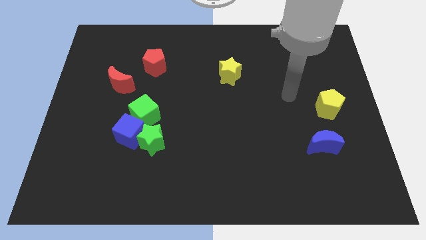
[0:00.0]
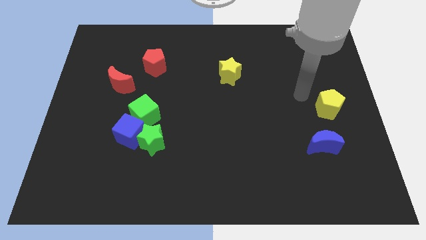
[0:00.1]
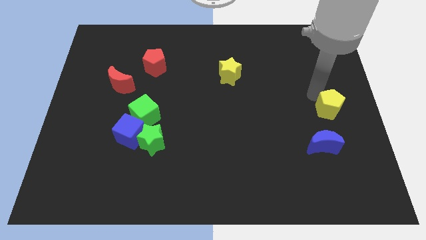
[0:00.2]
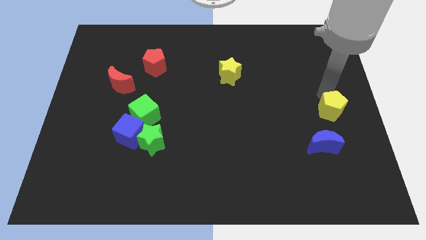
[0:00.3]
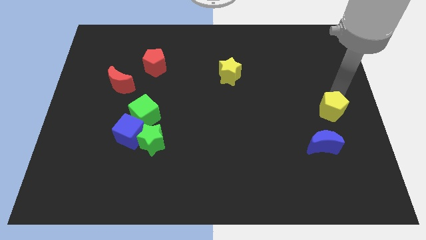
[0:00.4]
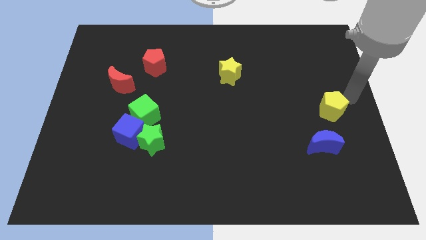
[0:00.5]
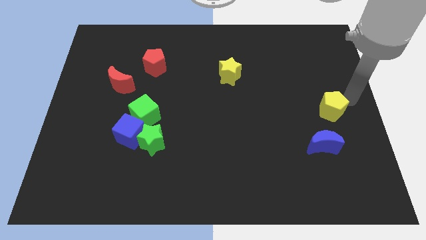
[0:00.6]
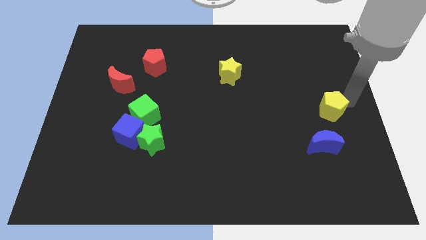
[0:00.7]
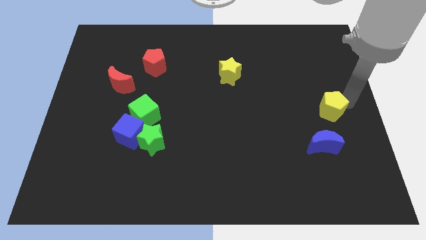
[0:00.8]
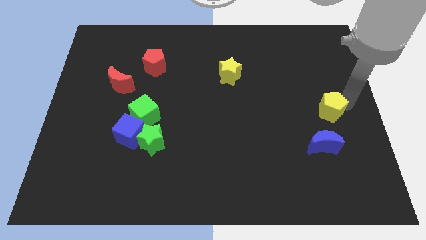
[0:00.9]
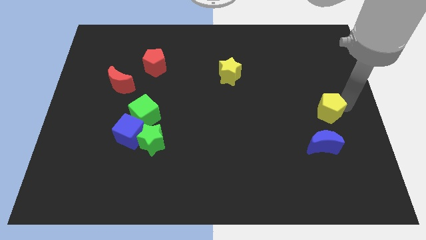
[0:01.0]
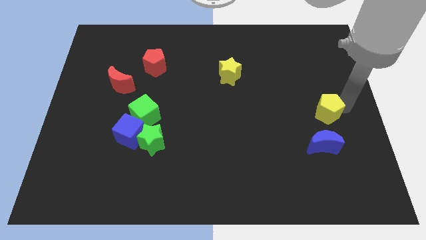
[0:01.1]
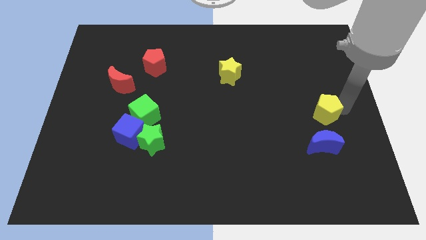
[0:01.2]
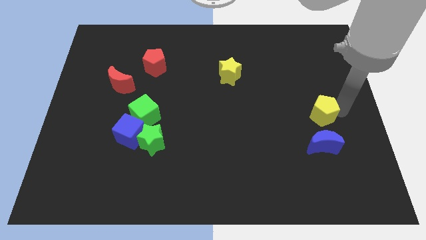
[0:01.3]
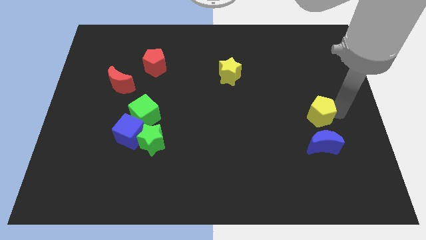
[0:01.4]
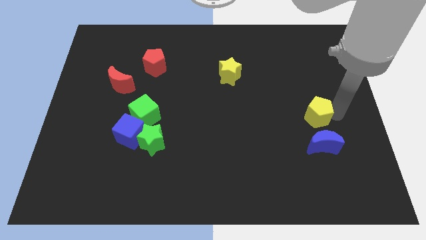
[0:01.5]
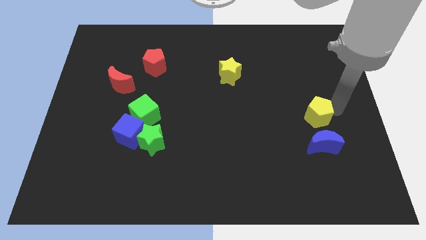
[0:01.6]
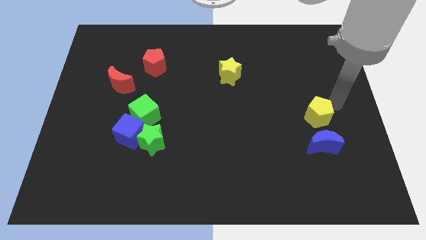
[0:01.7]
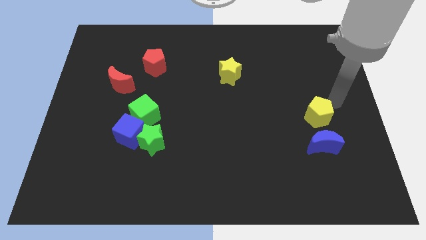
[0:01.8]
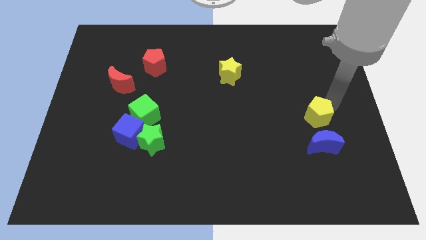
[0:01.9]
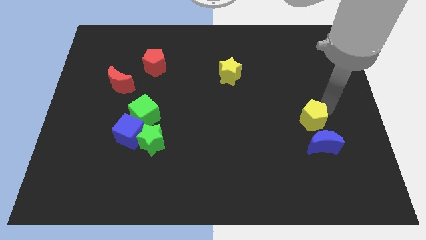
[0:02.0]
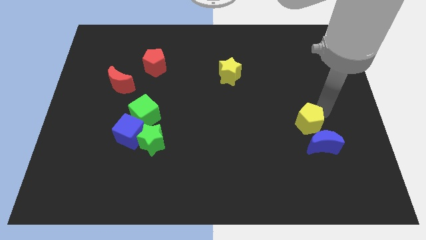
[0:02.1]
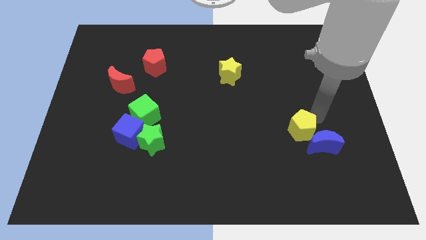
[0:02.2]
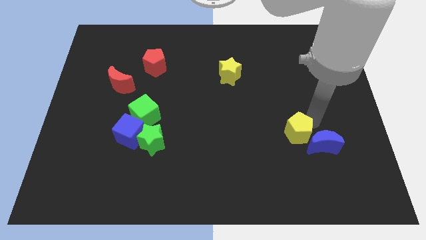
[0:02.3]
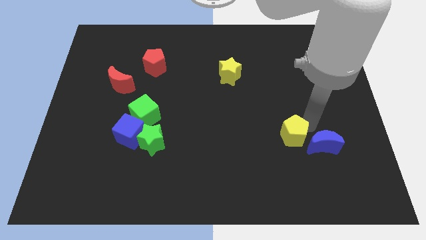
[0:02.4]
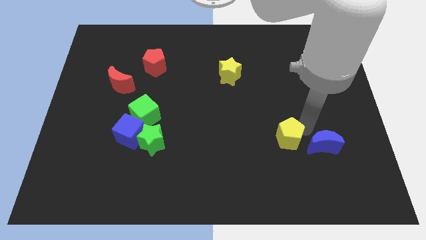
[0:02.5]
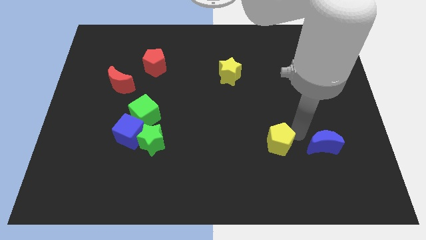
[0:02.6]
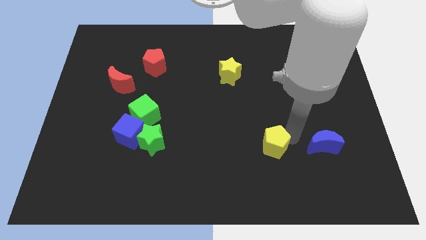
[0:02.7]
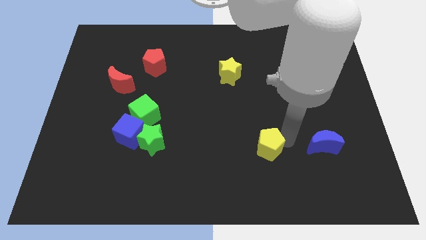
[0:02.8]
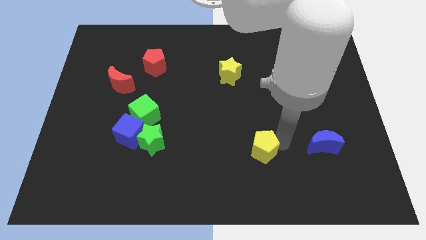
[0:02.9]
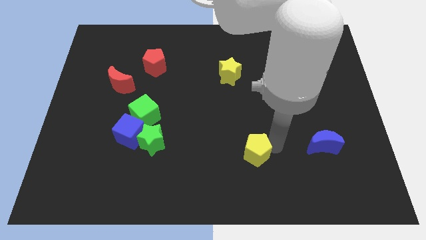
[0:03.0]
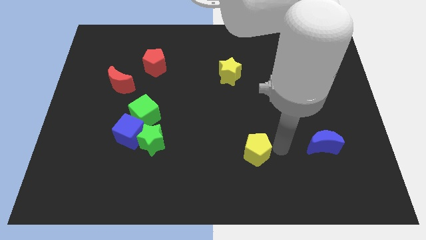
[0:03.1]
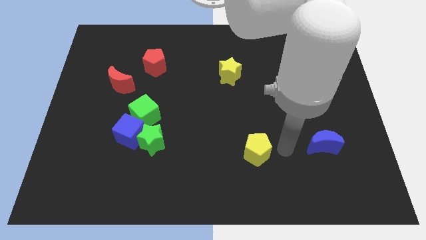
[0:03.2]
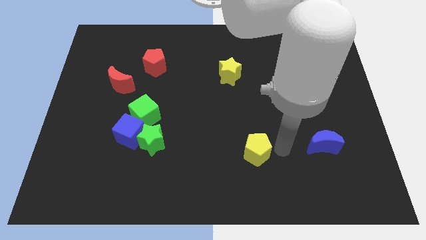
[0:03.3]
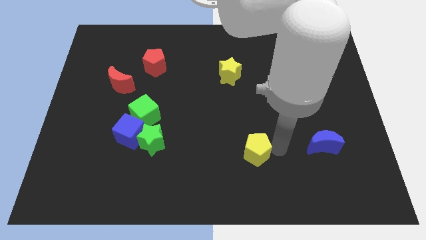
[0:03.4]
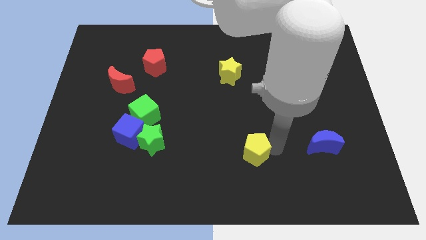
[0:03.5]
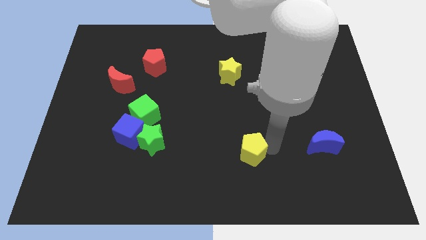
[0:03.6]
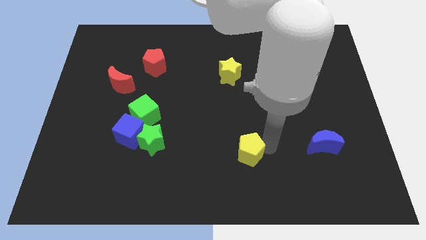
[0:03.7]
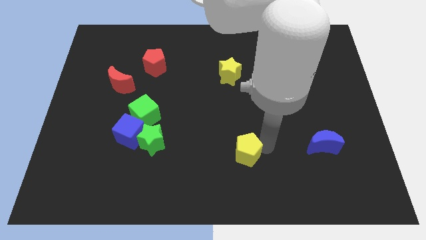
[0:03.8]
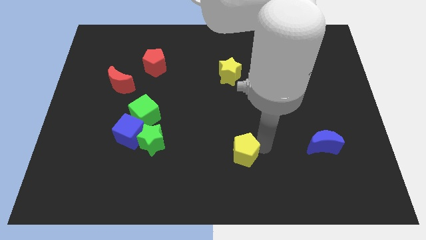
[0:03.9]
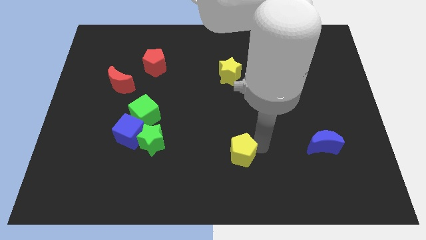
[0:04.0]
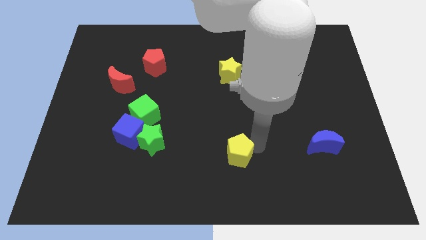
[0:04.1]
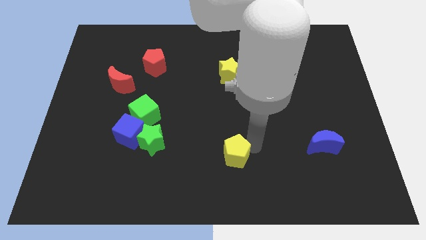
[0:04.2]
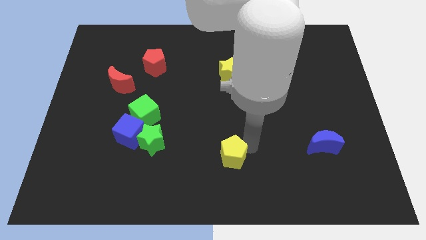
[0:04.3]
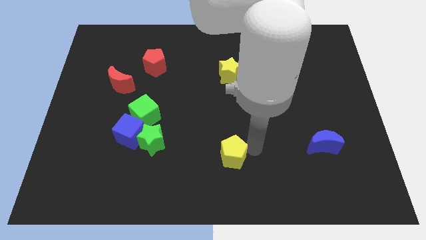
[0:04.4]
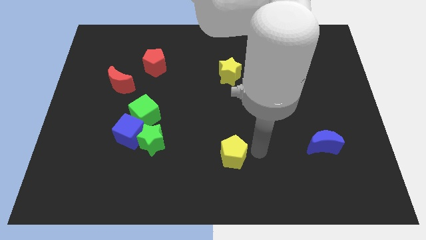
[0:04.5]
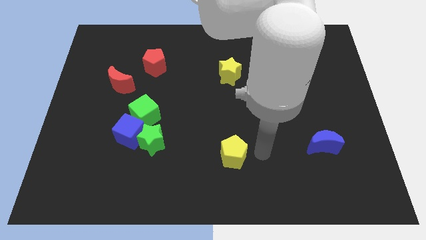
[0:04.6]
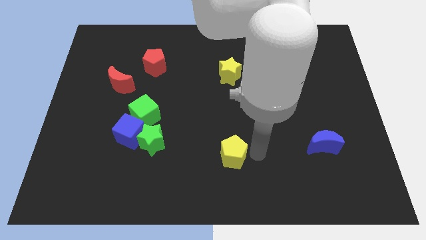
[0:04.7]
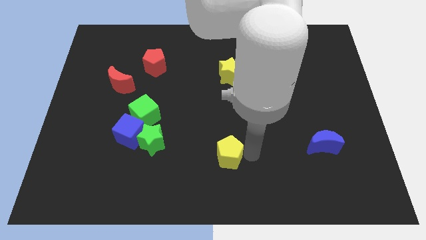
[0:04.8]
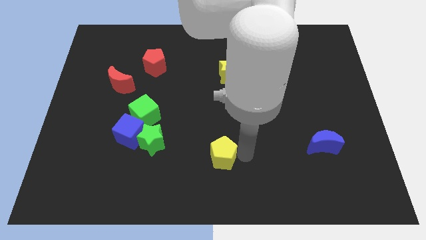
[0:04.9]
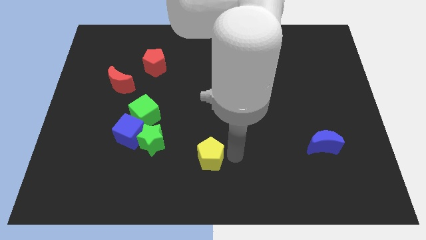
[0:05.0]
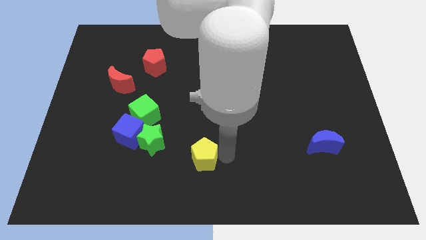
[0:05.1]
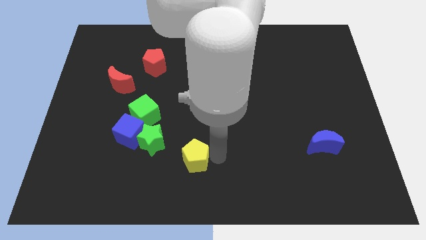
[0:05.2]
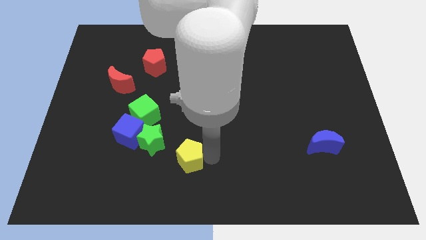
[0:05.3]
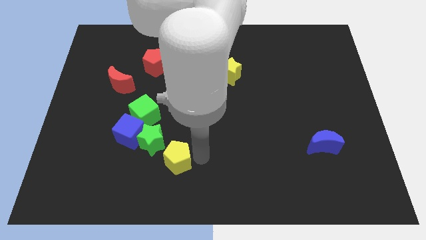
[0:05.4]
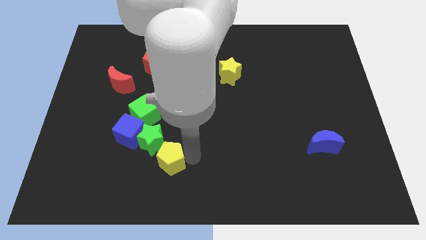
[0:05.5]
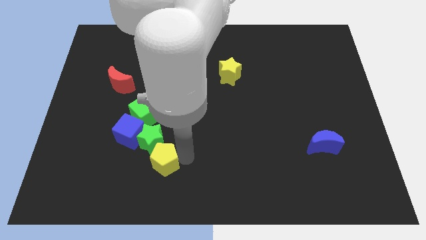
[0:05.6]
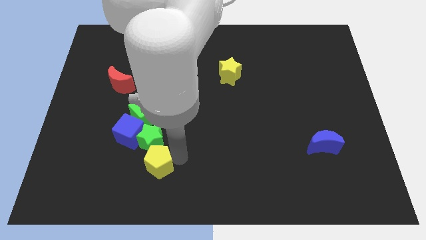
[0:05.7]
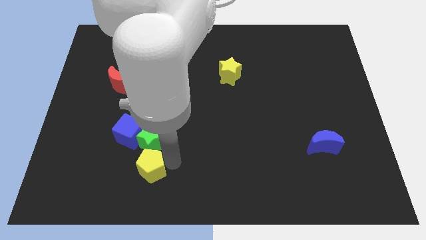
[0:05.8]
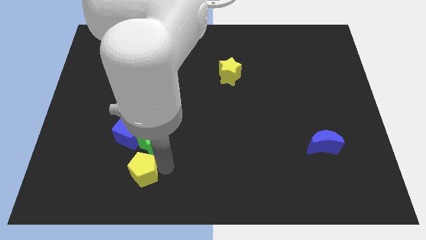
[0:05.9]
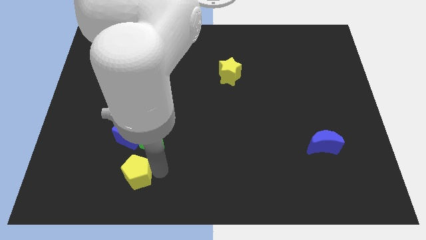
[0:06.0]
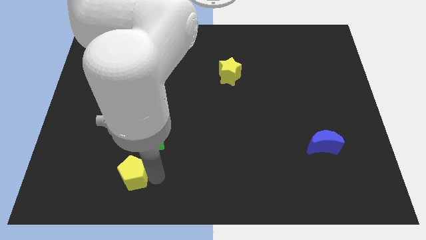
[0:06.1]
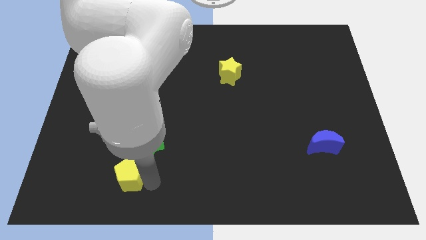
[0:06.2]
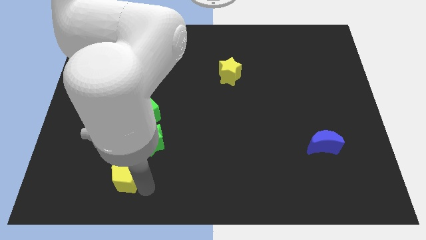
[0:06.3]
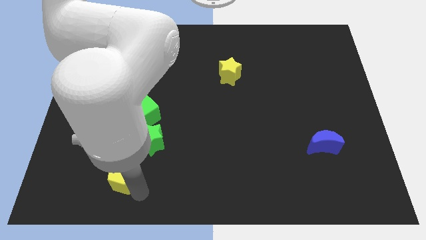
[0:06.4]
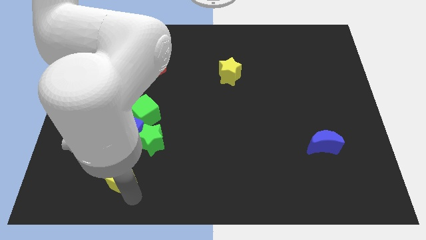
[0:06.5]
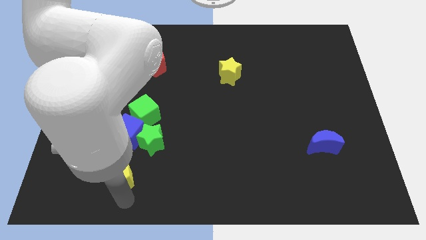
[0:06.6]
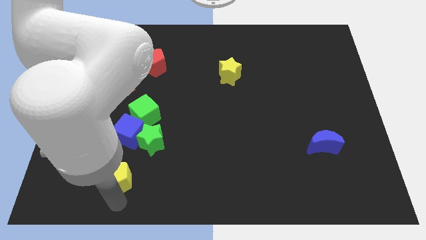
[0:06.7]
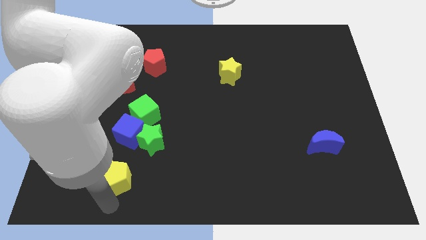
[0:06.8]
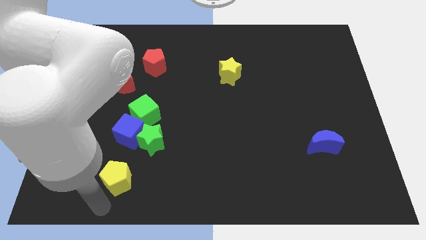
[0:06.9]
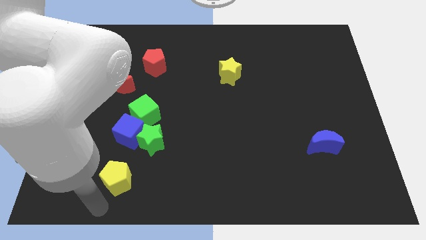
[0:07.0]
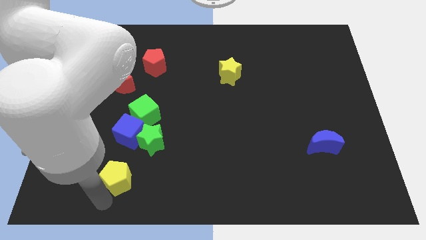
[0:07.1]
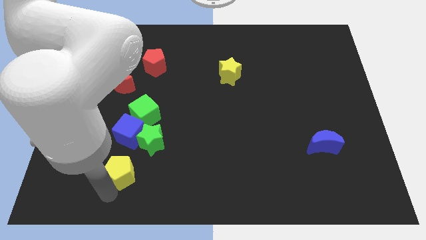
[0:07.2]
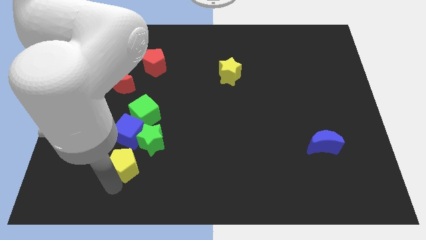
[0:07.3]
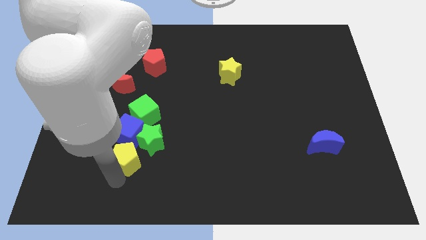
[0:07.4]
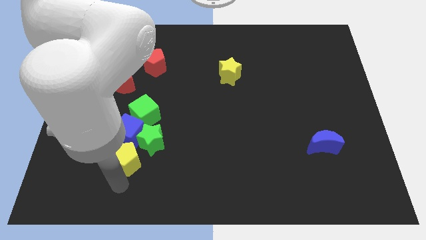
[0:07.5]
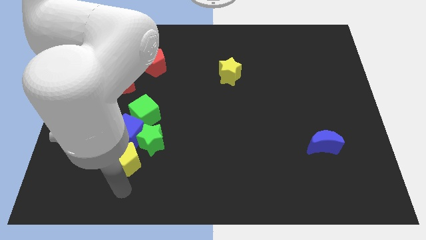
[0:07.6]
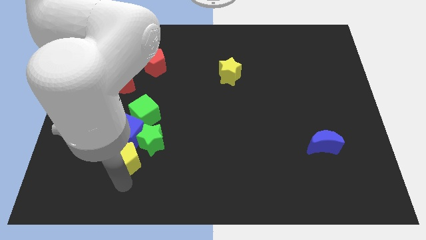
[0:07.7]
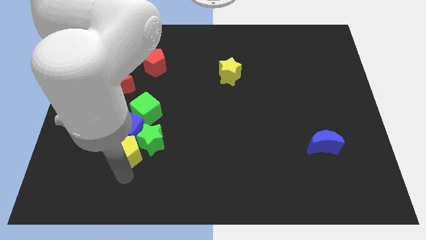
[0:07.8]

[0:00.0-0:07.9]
move the yellow pentagon towards the blue cube
